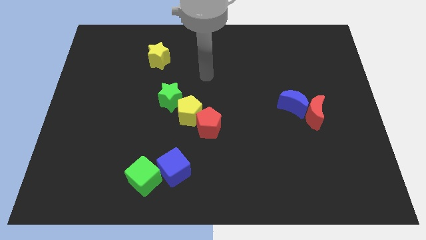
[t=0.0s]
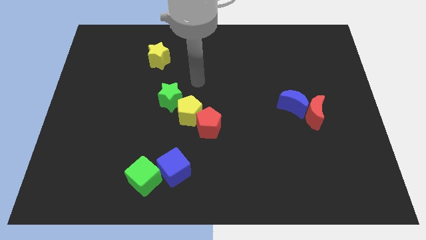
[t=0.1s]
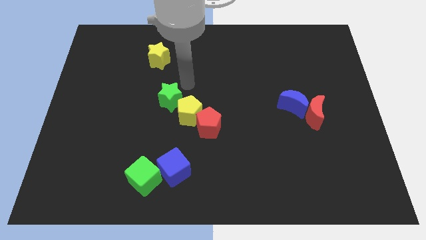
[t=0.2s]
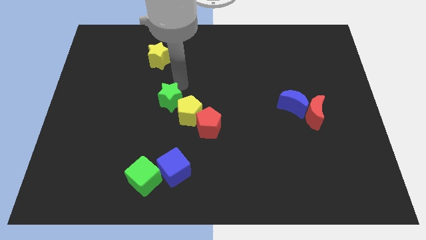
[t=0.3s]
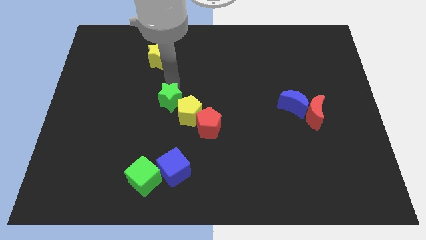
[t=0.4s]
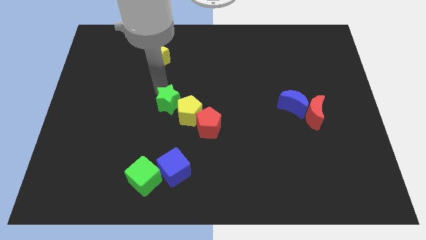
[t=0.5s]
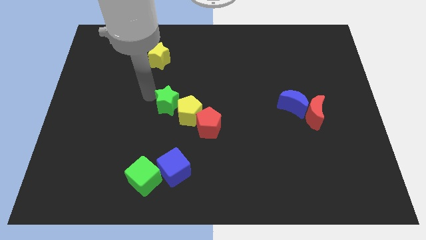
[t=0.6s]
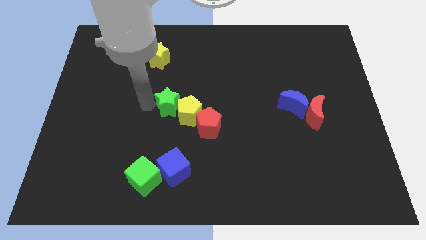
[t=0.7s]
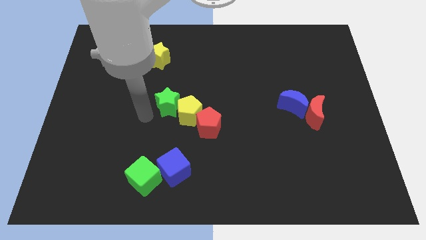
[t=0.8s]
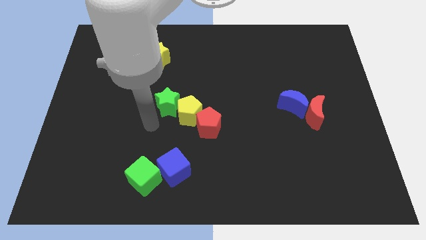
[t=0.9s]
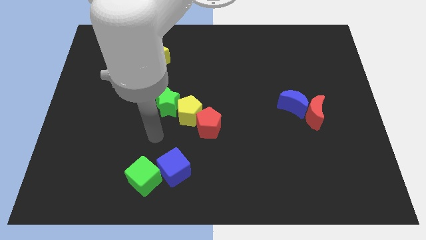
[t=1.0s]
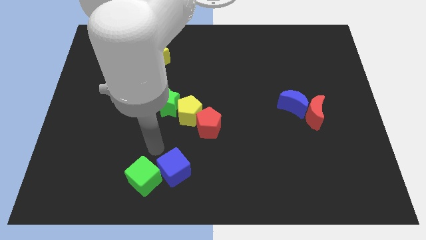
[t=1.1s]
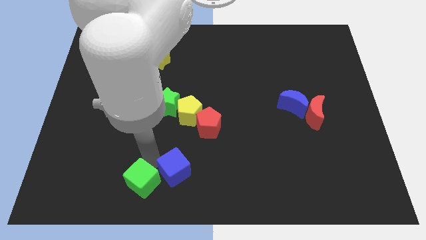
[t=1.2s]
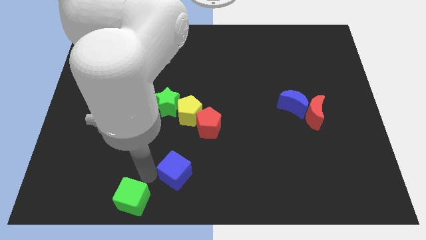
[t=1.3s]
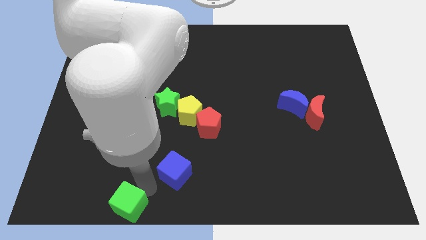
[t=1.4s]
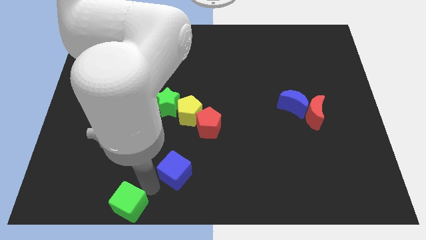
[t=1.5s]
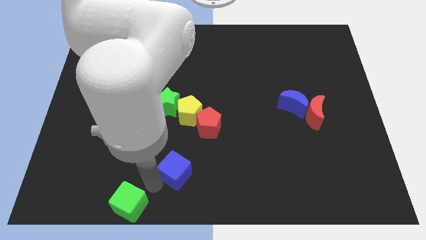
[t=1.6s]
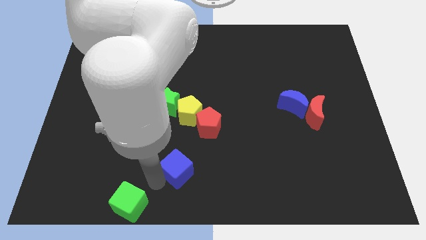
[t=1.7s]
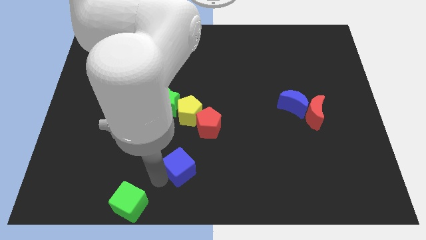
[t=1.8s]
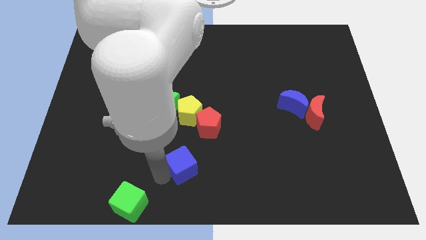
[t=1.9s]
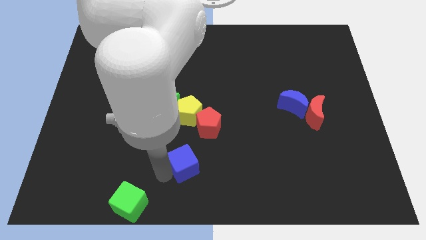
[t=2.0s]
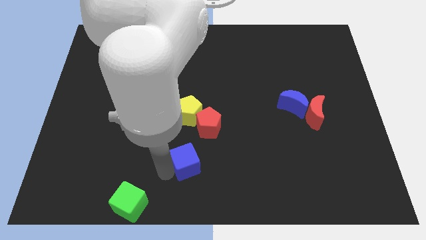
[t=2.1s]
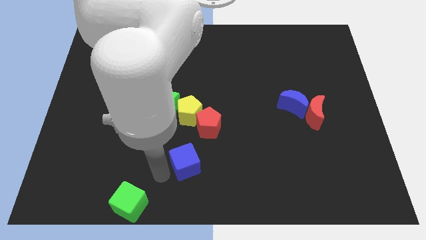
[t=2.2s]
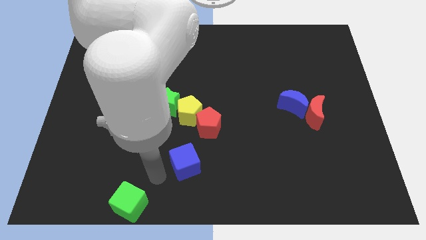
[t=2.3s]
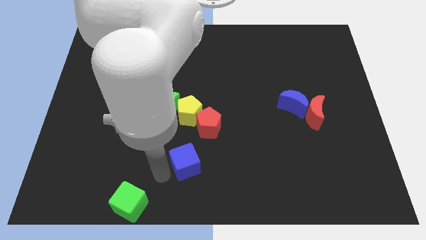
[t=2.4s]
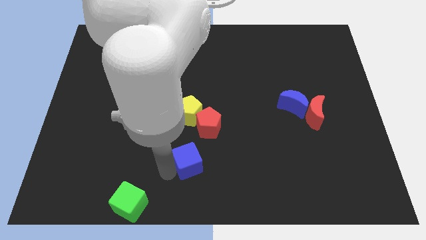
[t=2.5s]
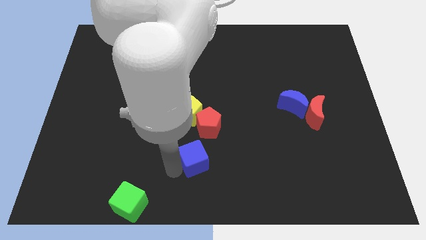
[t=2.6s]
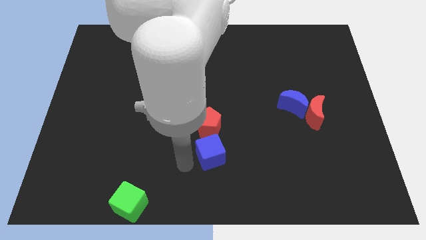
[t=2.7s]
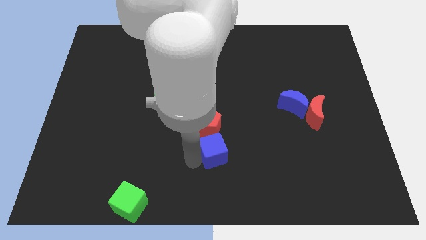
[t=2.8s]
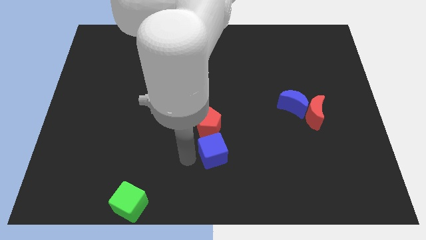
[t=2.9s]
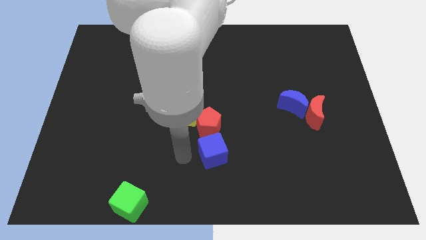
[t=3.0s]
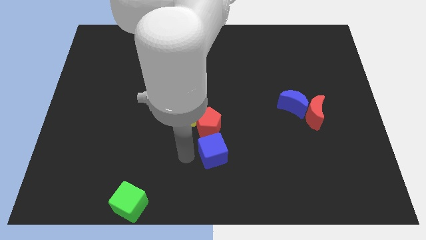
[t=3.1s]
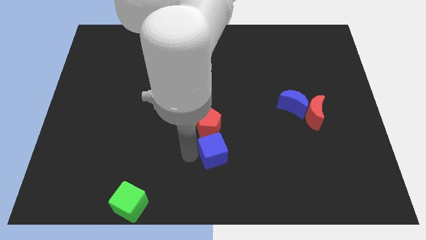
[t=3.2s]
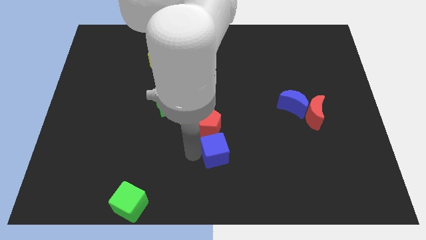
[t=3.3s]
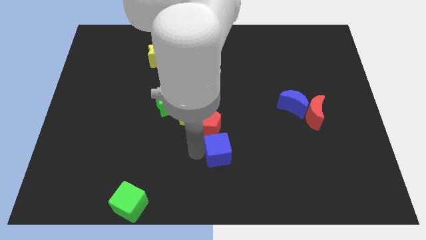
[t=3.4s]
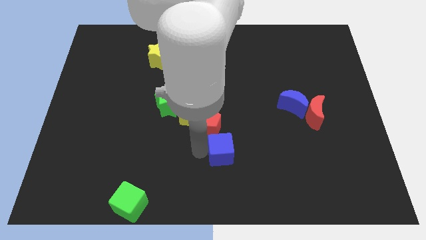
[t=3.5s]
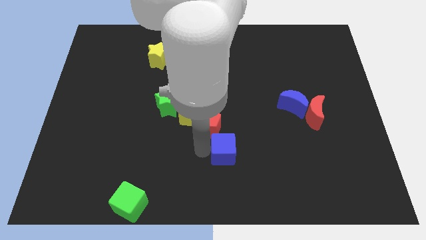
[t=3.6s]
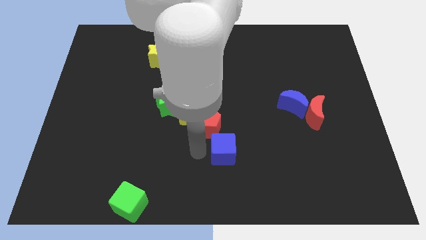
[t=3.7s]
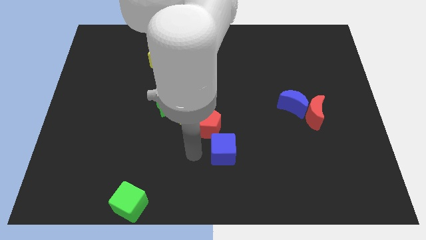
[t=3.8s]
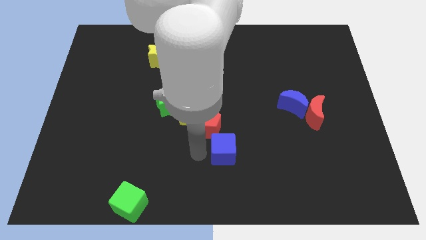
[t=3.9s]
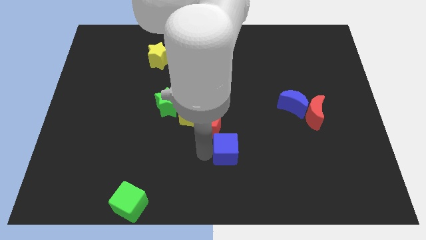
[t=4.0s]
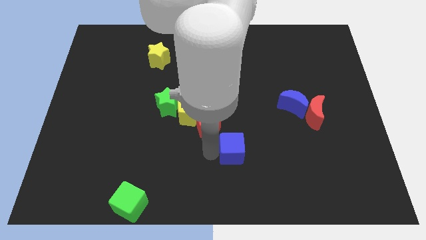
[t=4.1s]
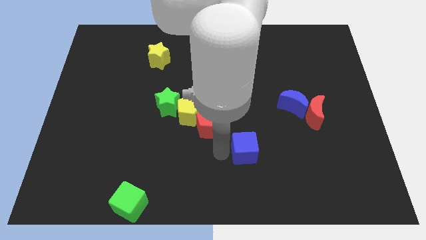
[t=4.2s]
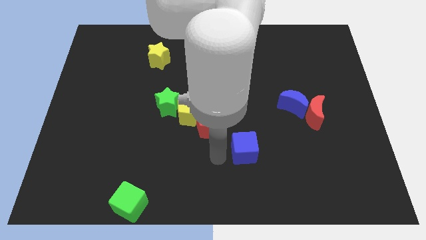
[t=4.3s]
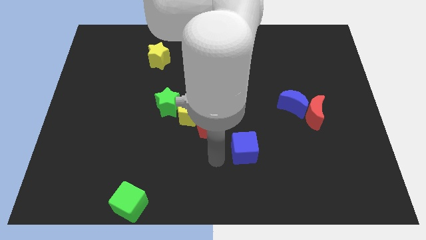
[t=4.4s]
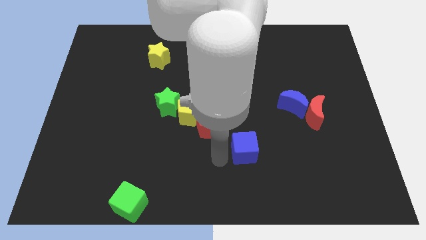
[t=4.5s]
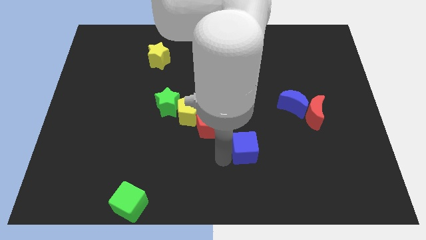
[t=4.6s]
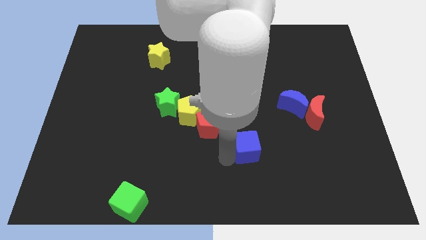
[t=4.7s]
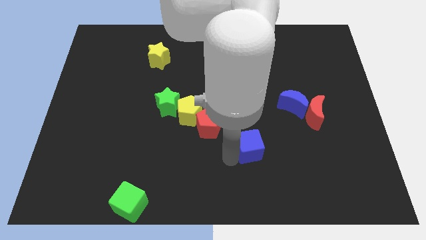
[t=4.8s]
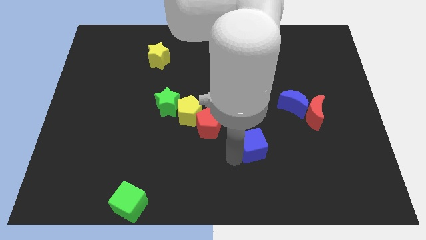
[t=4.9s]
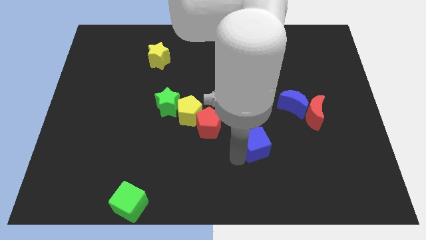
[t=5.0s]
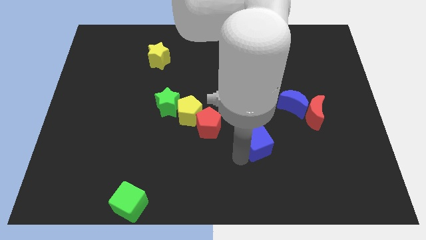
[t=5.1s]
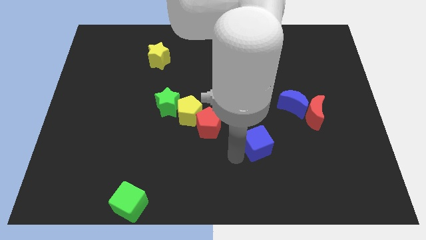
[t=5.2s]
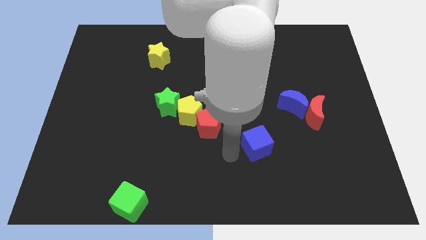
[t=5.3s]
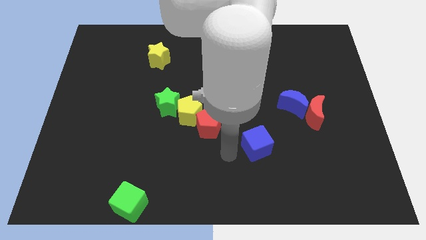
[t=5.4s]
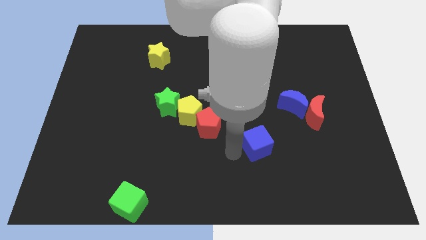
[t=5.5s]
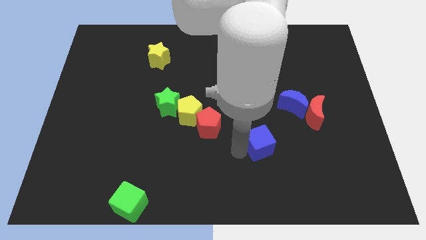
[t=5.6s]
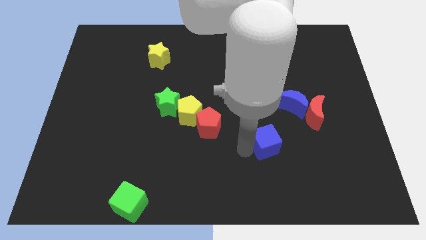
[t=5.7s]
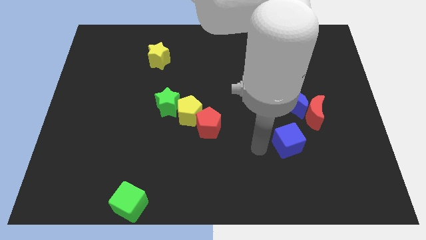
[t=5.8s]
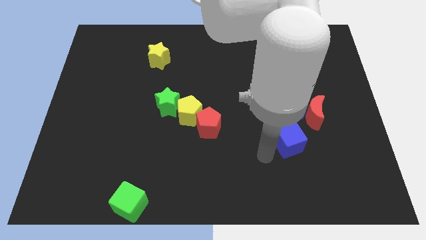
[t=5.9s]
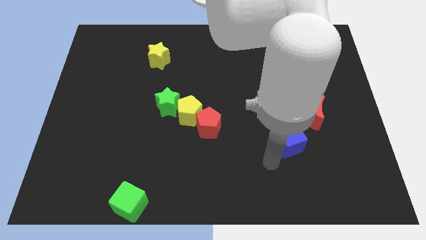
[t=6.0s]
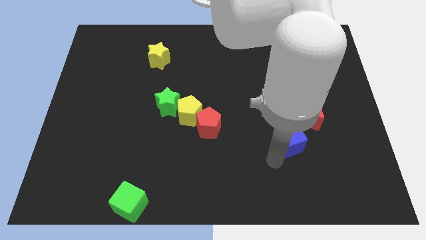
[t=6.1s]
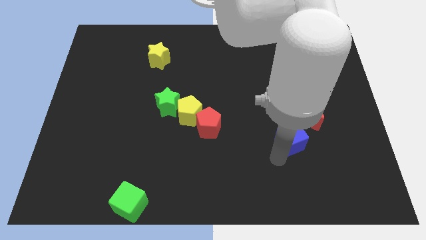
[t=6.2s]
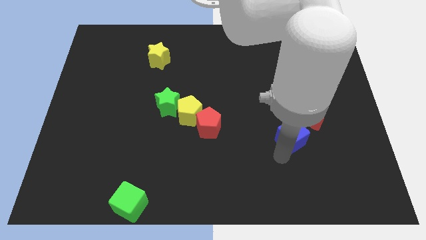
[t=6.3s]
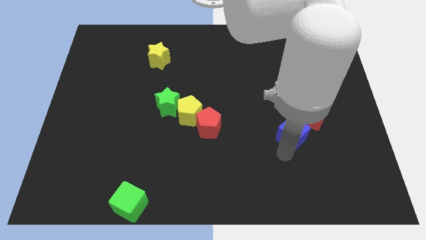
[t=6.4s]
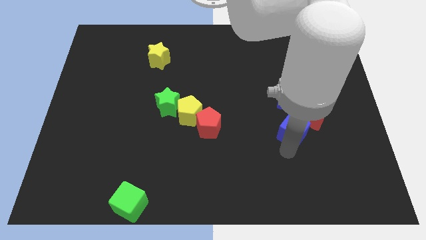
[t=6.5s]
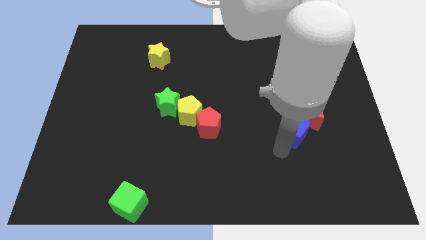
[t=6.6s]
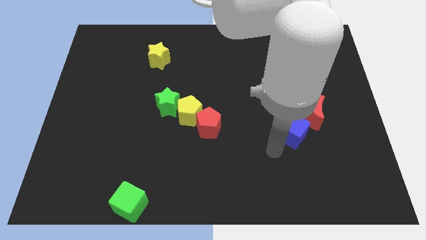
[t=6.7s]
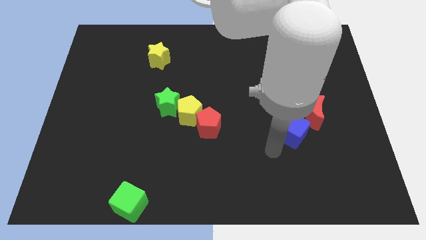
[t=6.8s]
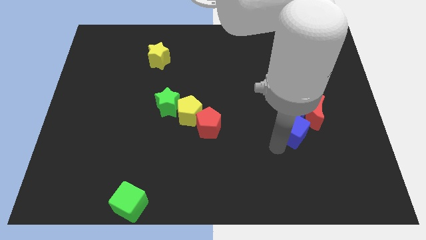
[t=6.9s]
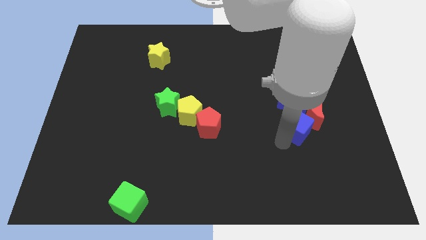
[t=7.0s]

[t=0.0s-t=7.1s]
push the blue cube to the red moon

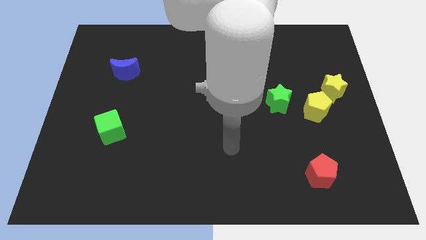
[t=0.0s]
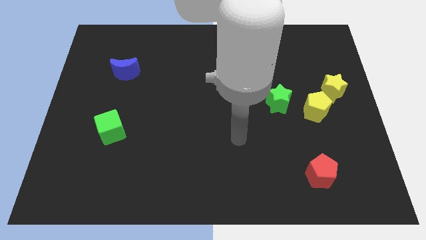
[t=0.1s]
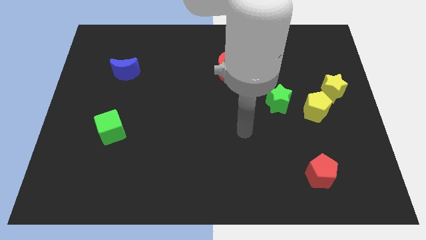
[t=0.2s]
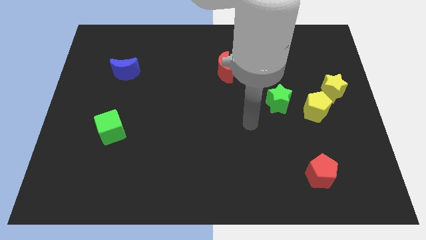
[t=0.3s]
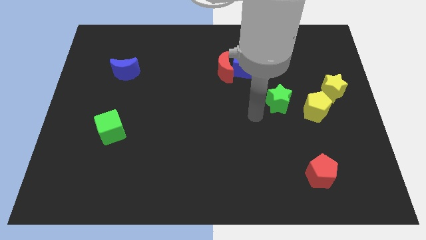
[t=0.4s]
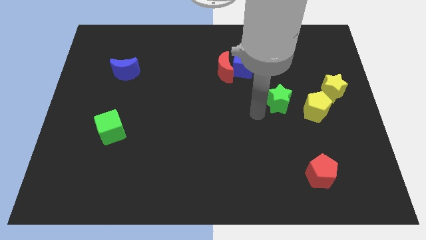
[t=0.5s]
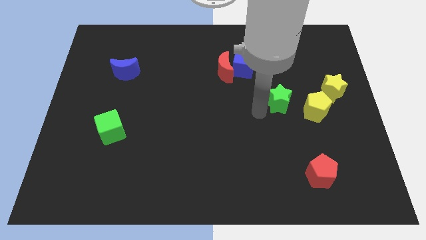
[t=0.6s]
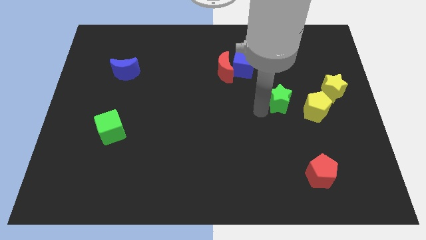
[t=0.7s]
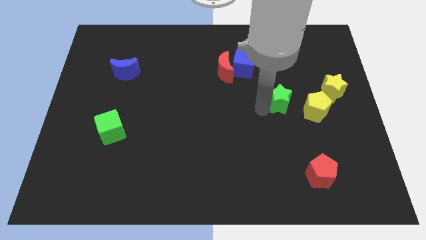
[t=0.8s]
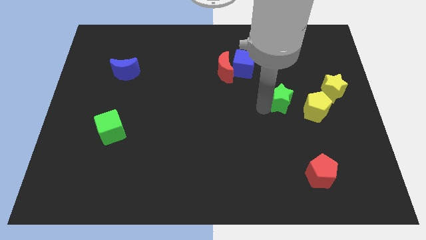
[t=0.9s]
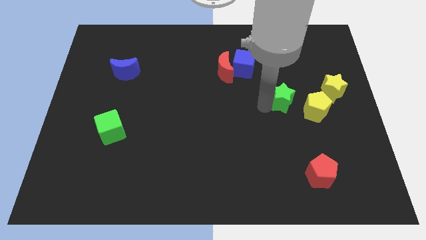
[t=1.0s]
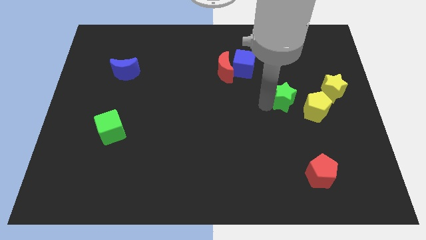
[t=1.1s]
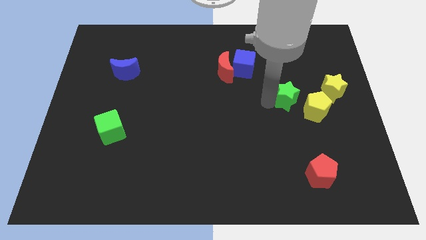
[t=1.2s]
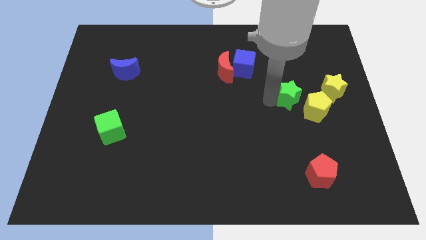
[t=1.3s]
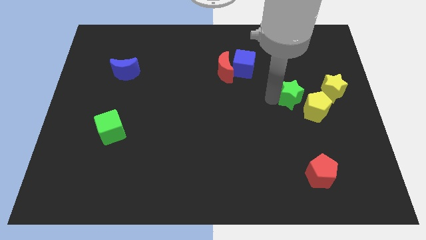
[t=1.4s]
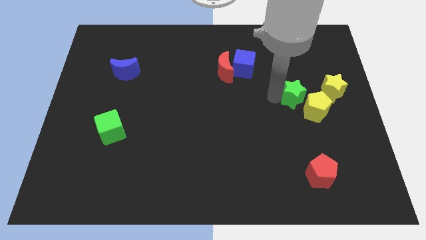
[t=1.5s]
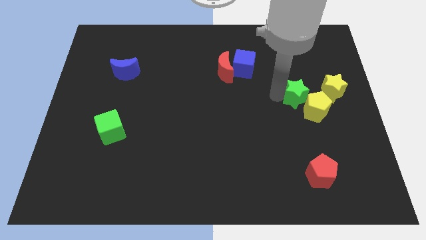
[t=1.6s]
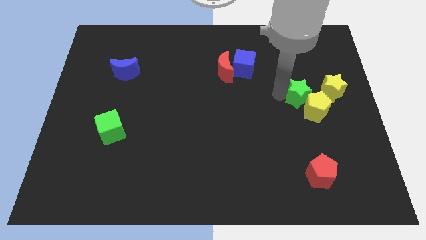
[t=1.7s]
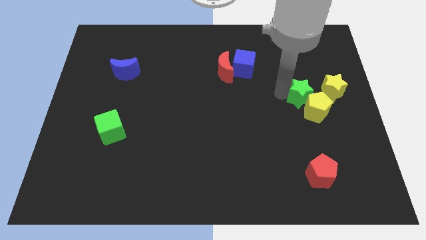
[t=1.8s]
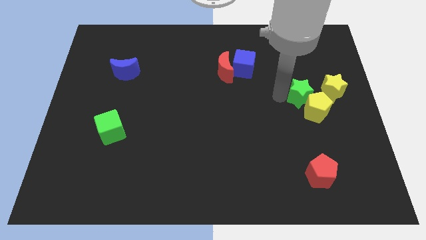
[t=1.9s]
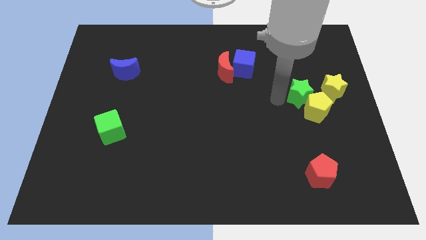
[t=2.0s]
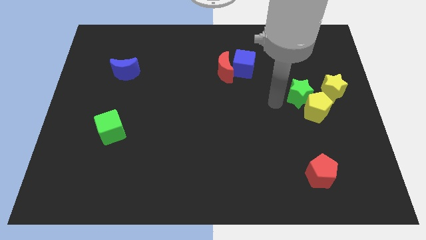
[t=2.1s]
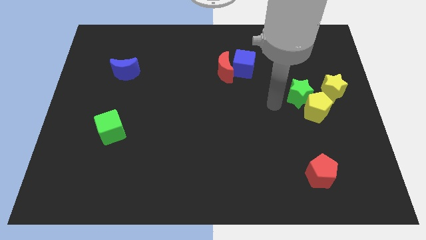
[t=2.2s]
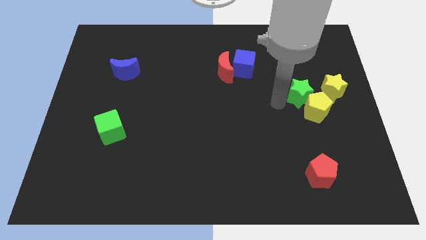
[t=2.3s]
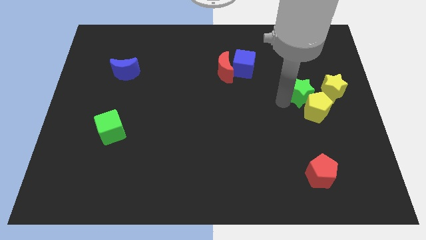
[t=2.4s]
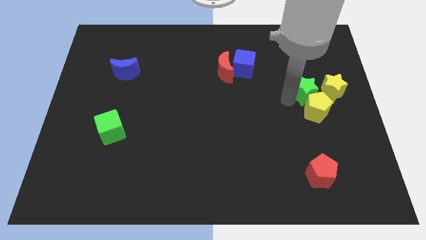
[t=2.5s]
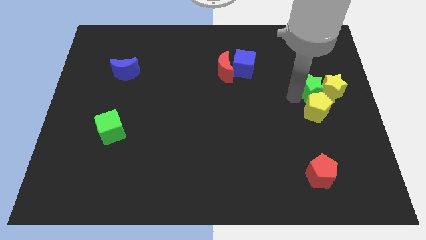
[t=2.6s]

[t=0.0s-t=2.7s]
slide the green star to the yellow star
